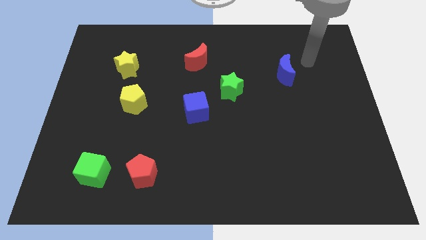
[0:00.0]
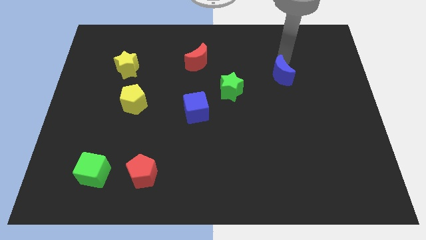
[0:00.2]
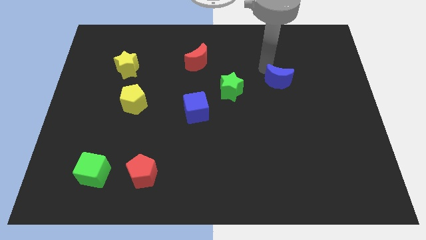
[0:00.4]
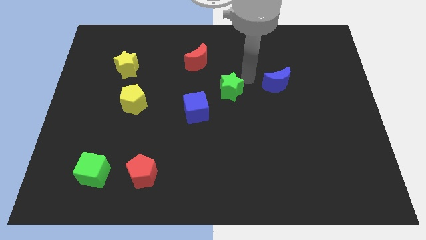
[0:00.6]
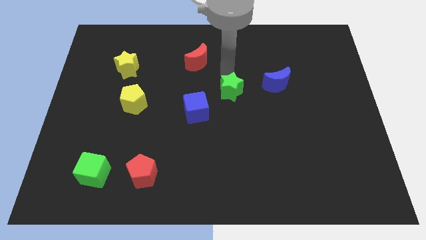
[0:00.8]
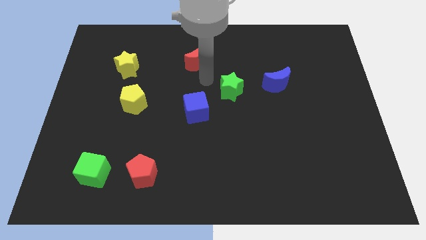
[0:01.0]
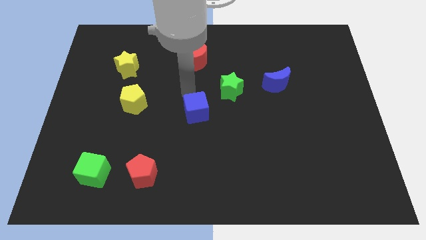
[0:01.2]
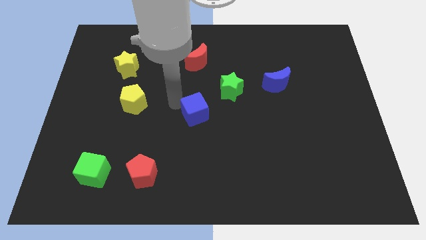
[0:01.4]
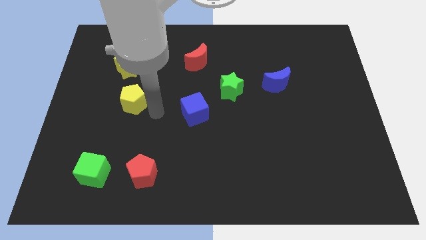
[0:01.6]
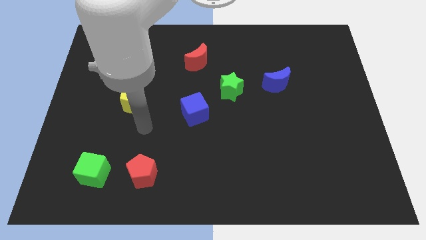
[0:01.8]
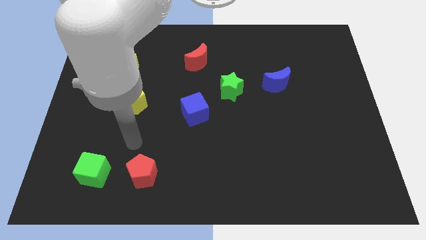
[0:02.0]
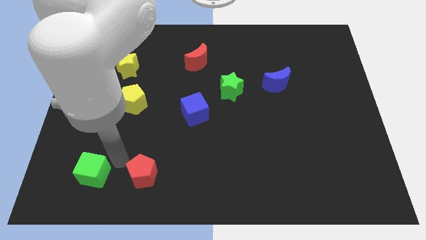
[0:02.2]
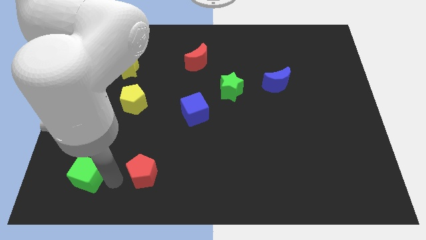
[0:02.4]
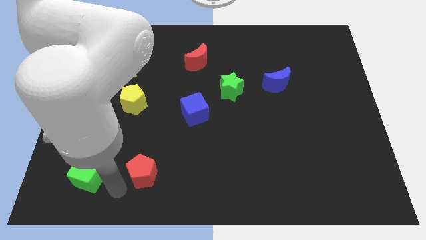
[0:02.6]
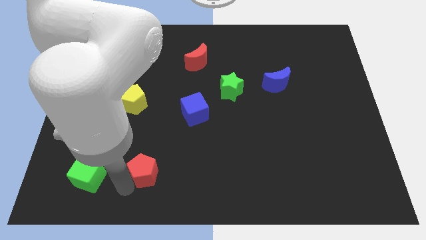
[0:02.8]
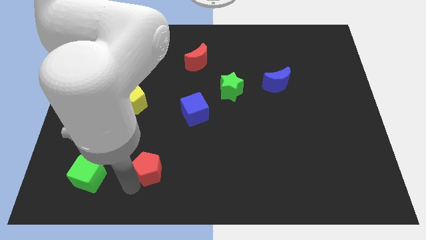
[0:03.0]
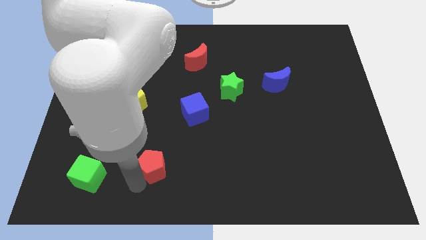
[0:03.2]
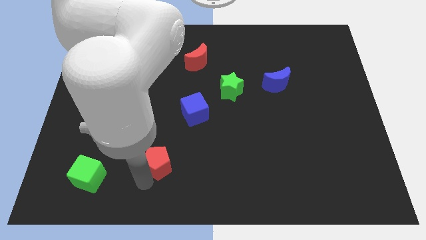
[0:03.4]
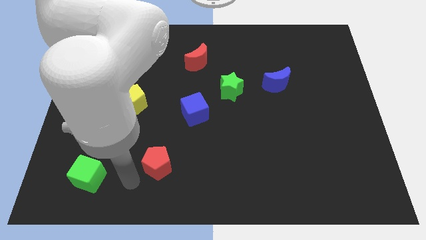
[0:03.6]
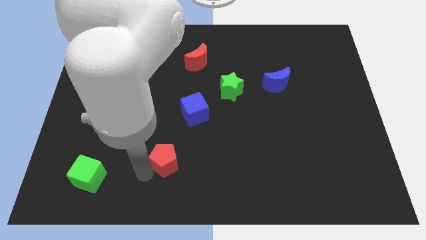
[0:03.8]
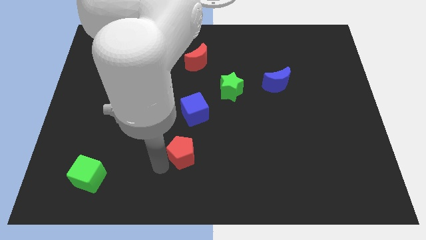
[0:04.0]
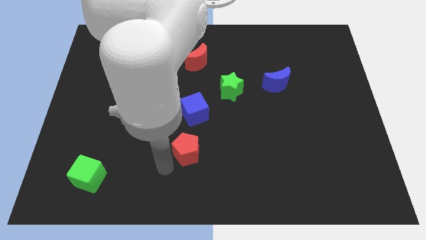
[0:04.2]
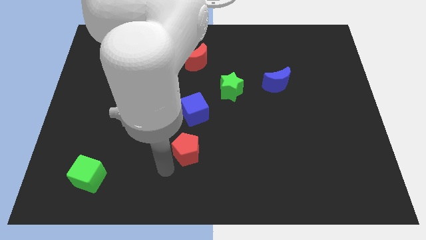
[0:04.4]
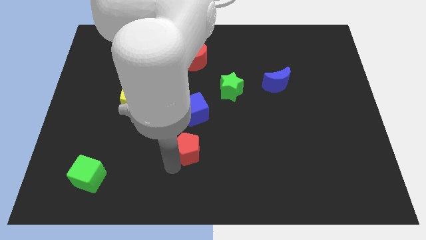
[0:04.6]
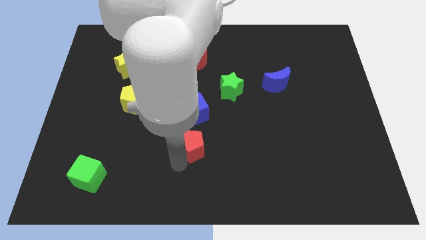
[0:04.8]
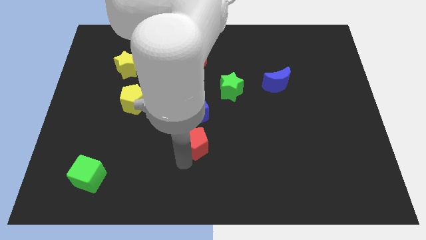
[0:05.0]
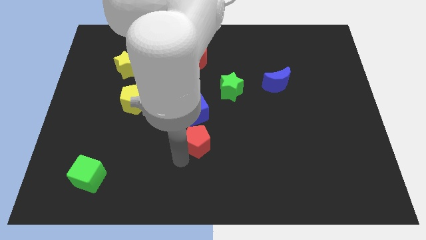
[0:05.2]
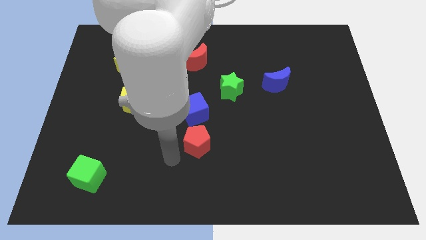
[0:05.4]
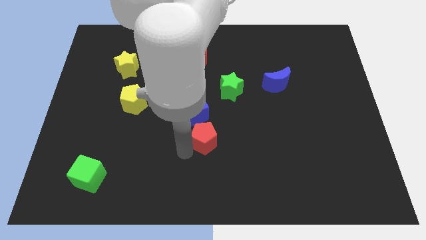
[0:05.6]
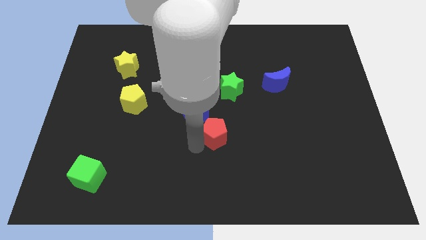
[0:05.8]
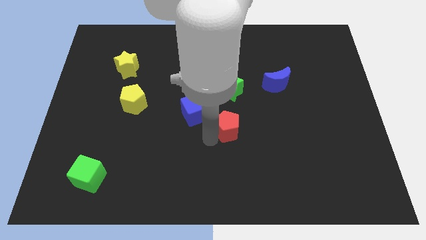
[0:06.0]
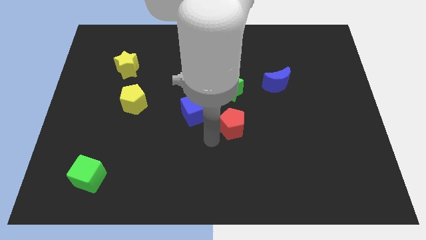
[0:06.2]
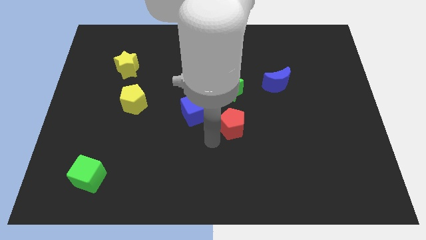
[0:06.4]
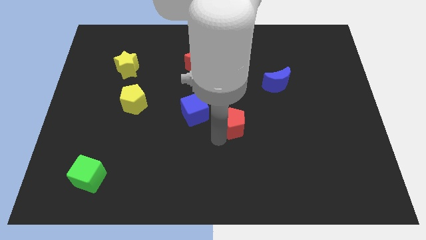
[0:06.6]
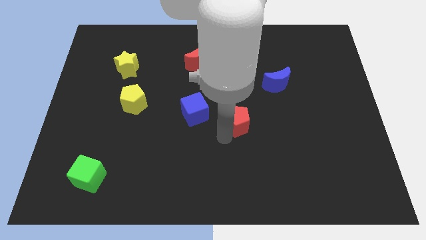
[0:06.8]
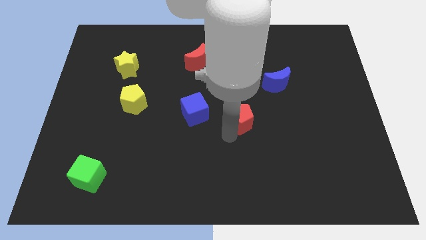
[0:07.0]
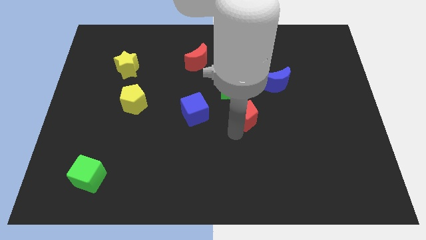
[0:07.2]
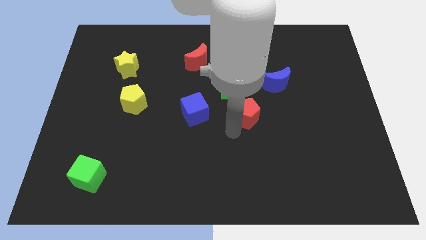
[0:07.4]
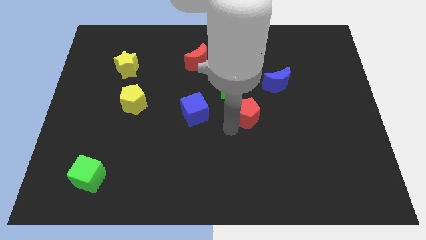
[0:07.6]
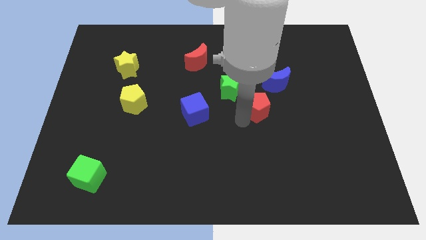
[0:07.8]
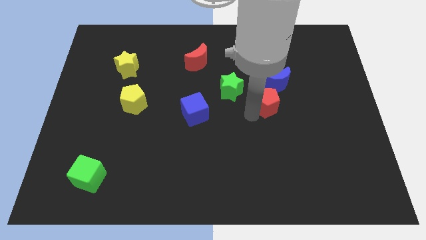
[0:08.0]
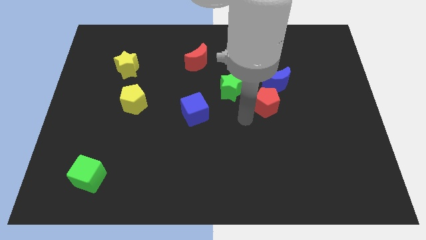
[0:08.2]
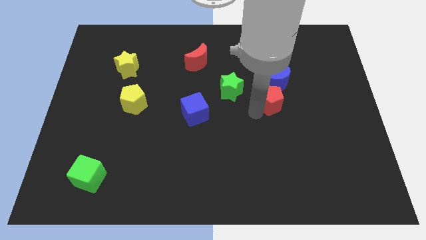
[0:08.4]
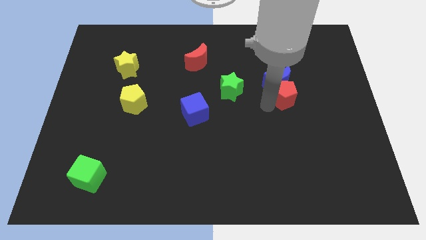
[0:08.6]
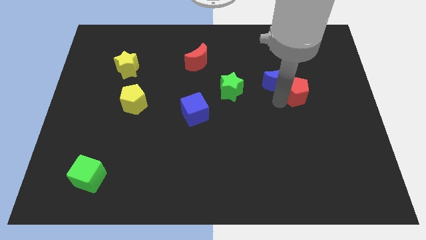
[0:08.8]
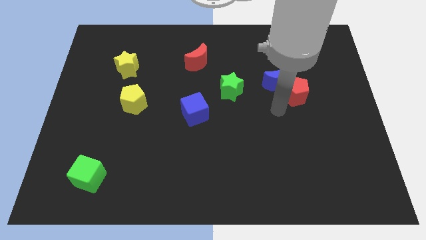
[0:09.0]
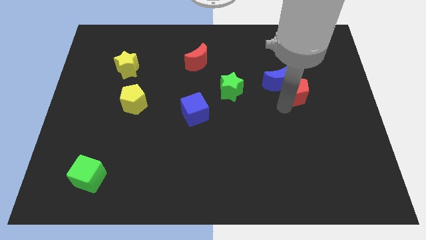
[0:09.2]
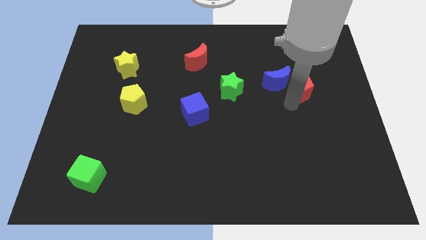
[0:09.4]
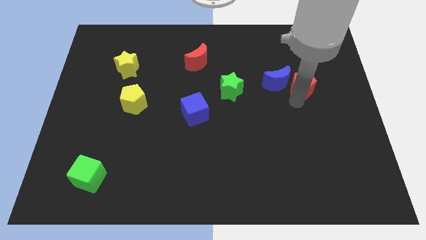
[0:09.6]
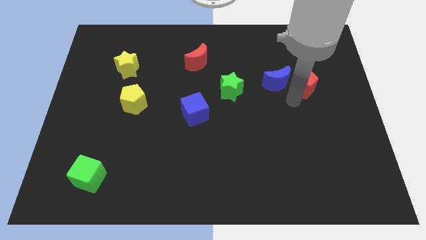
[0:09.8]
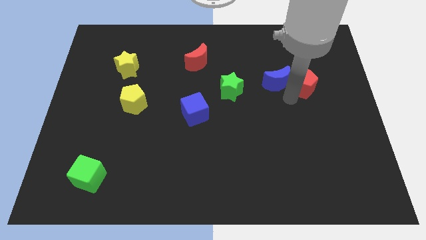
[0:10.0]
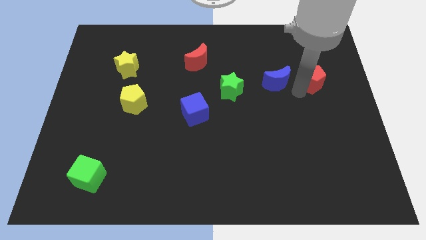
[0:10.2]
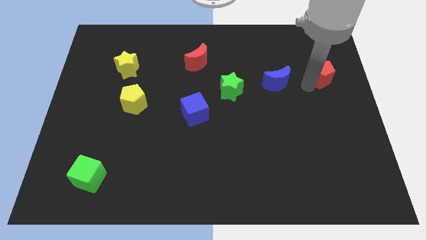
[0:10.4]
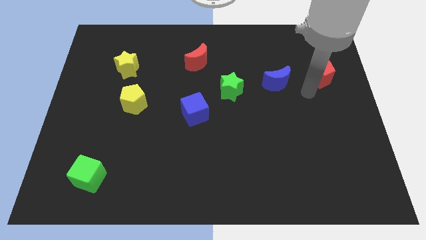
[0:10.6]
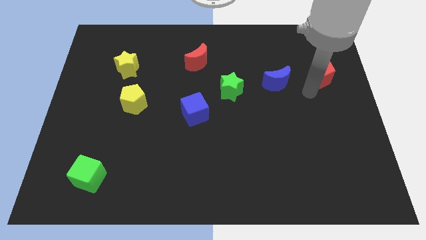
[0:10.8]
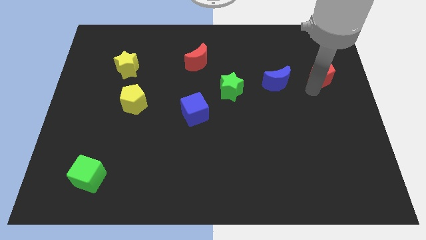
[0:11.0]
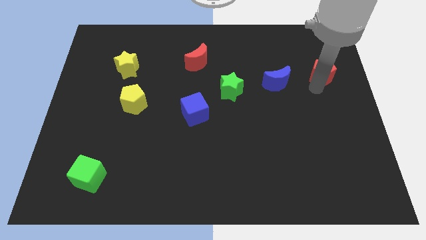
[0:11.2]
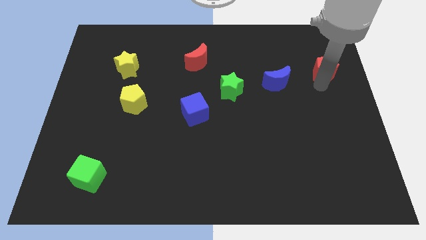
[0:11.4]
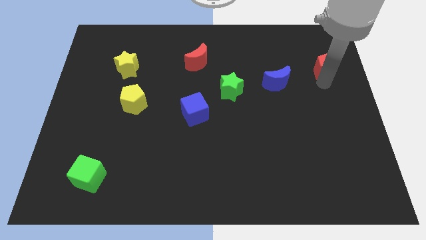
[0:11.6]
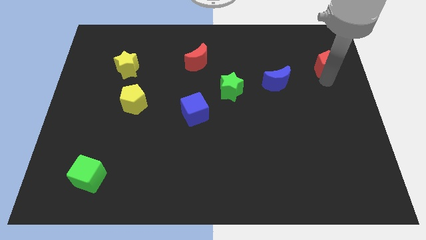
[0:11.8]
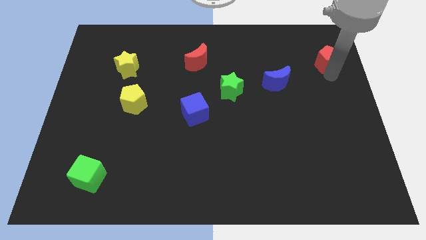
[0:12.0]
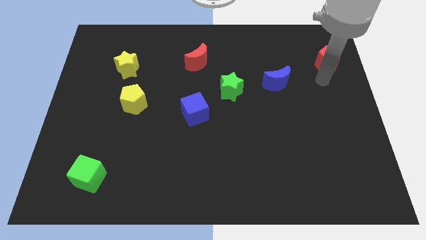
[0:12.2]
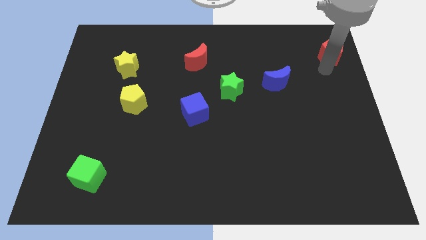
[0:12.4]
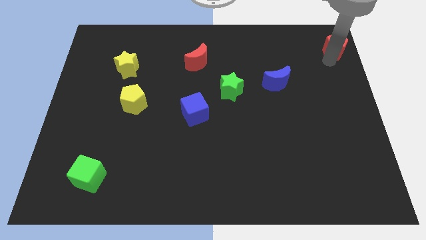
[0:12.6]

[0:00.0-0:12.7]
put the red pentagon to the top right
